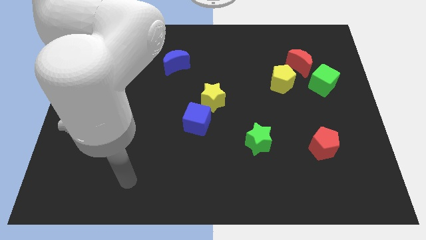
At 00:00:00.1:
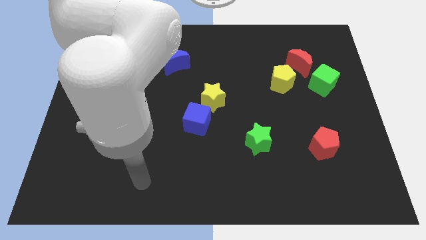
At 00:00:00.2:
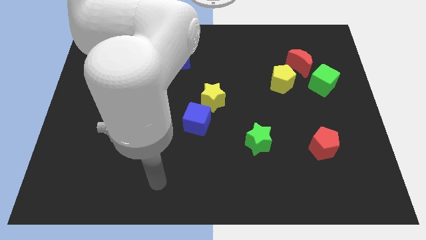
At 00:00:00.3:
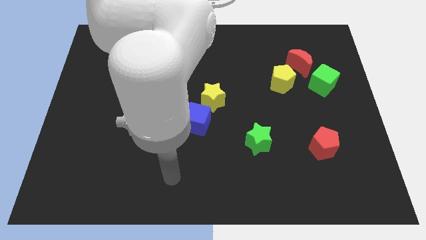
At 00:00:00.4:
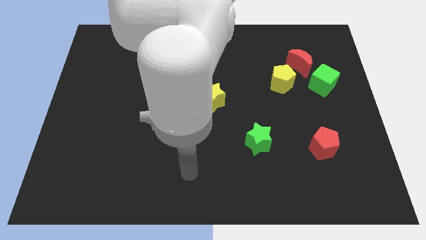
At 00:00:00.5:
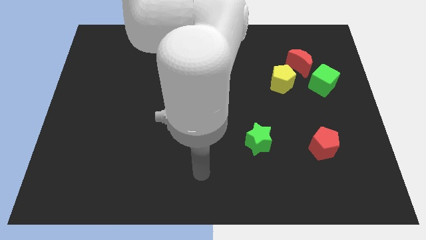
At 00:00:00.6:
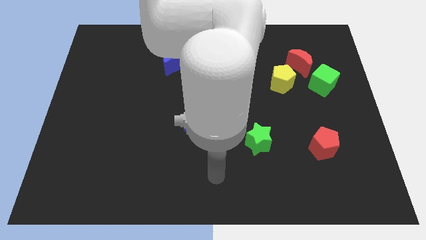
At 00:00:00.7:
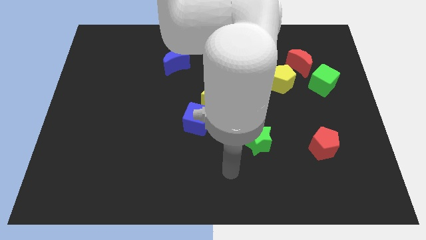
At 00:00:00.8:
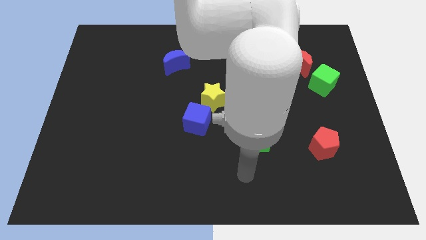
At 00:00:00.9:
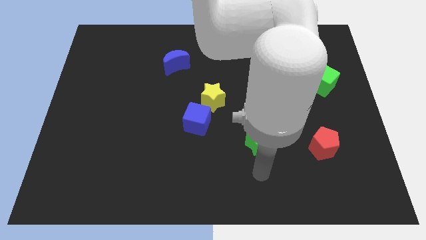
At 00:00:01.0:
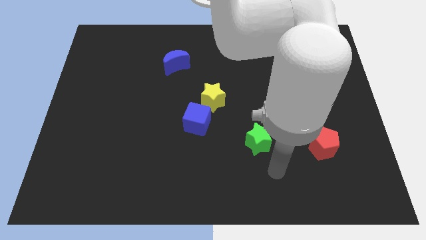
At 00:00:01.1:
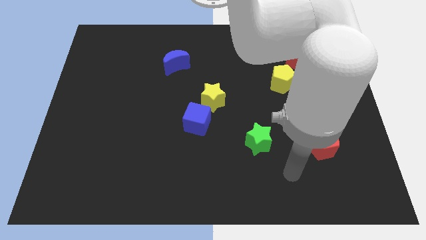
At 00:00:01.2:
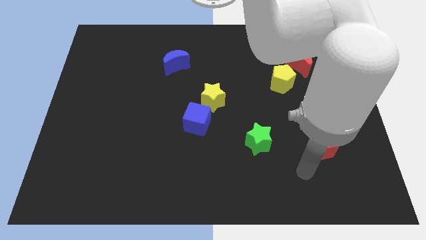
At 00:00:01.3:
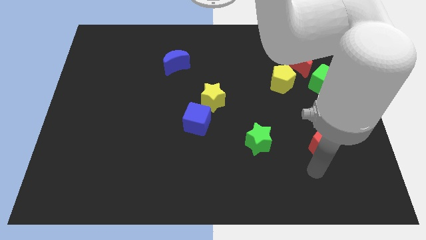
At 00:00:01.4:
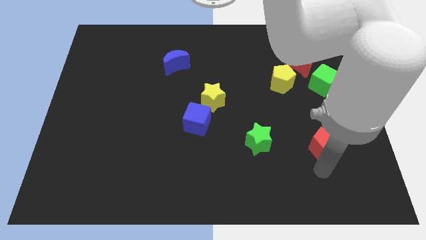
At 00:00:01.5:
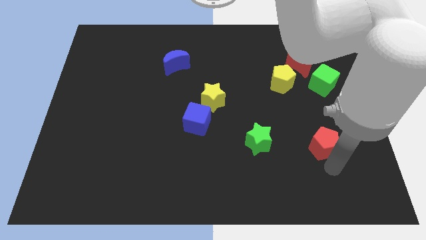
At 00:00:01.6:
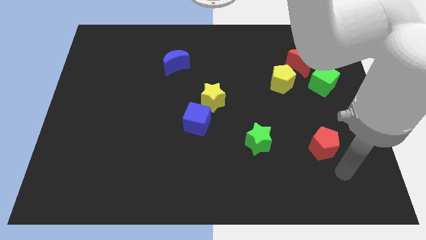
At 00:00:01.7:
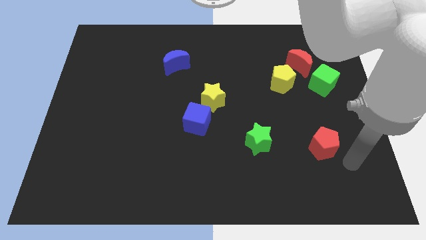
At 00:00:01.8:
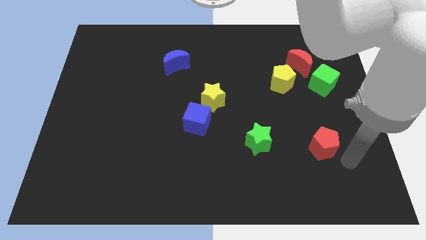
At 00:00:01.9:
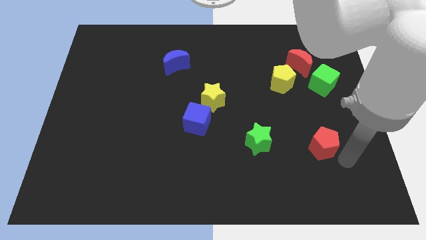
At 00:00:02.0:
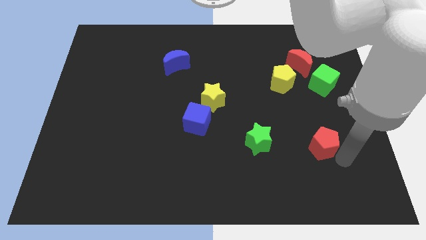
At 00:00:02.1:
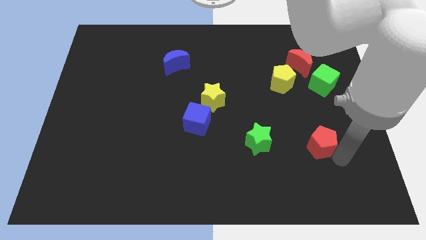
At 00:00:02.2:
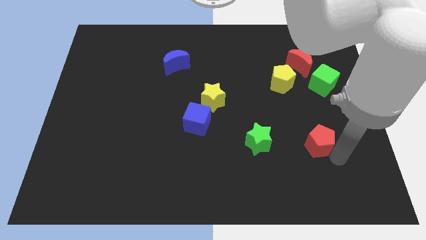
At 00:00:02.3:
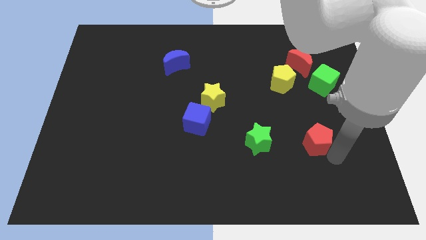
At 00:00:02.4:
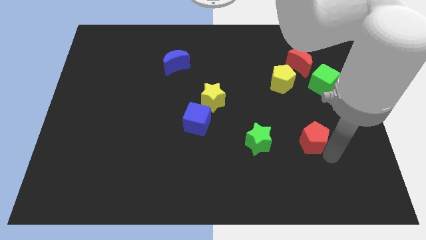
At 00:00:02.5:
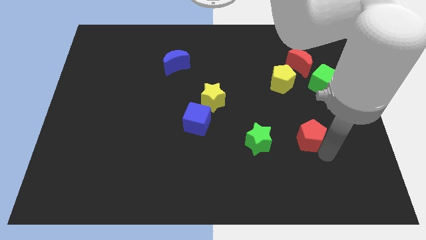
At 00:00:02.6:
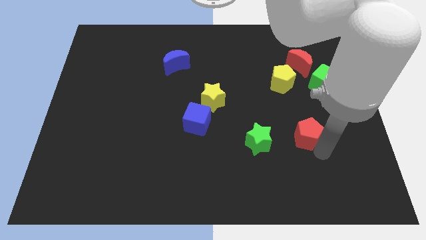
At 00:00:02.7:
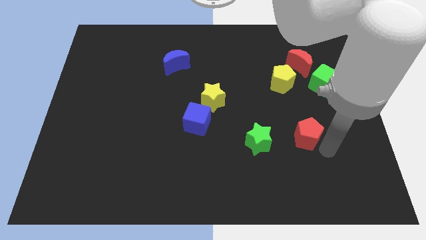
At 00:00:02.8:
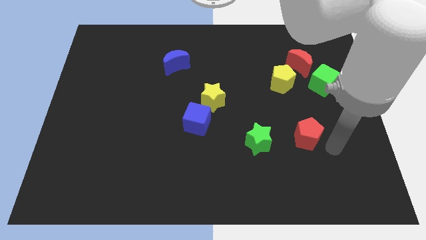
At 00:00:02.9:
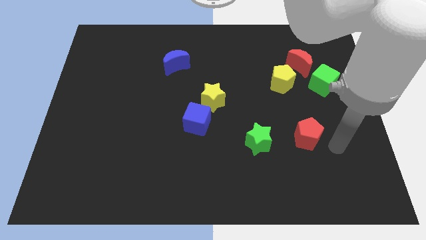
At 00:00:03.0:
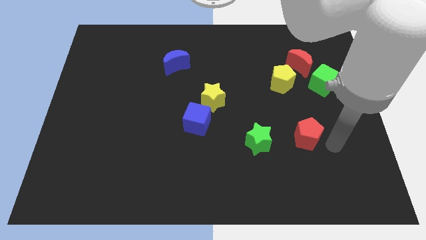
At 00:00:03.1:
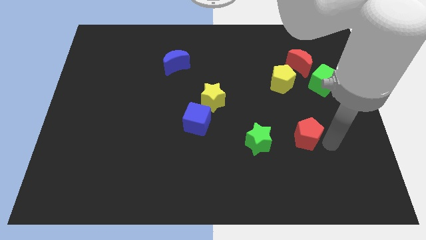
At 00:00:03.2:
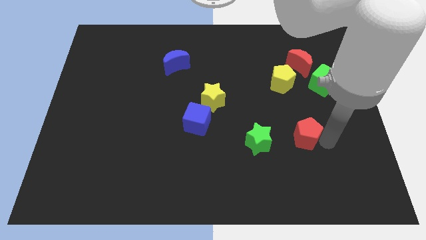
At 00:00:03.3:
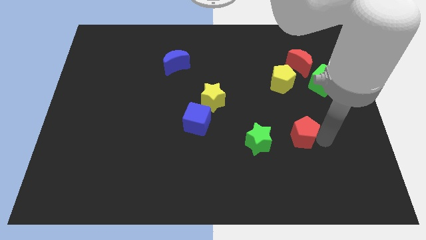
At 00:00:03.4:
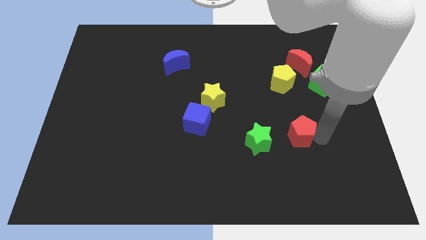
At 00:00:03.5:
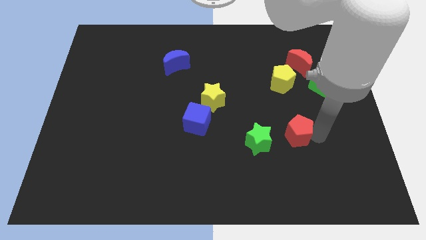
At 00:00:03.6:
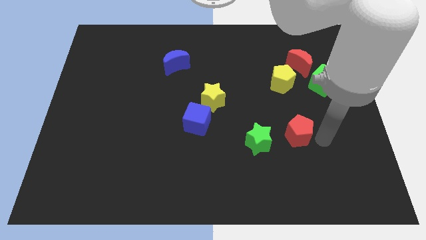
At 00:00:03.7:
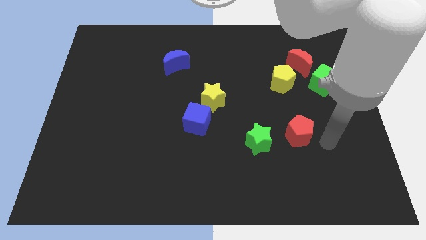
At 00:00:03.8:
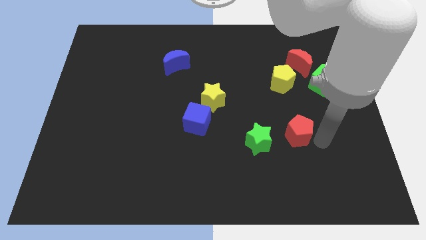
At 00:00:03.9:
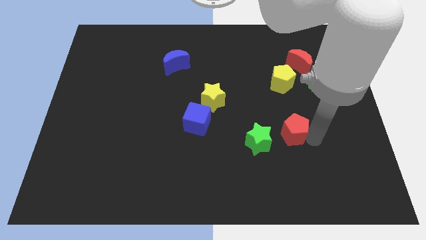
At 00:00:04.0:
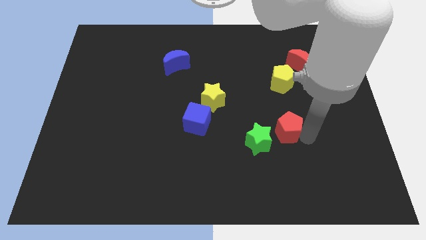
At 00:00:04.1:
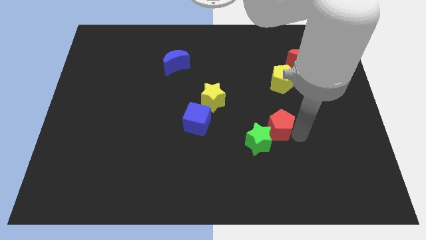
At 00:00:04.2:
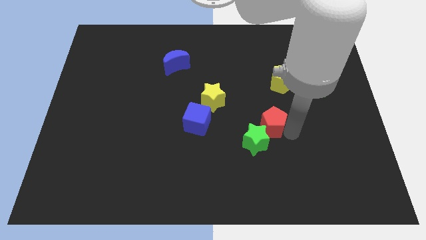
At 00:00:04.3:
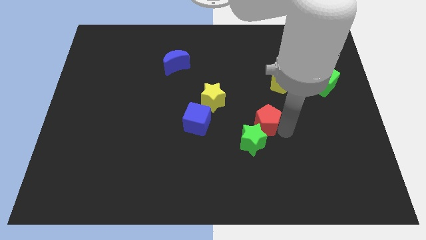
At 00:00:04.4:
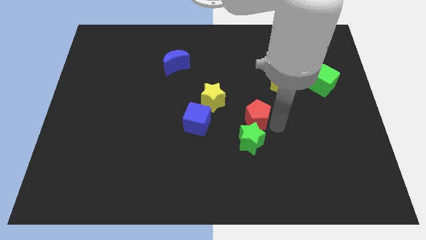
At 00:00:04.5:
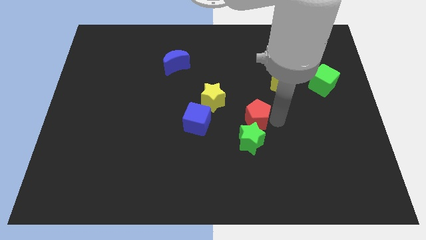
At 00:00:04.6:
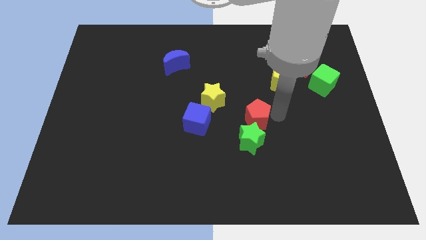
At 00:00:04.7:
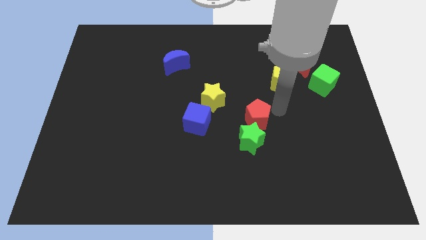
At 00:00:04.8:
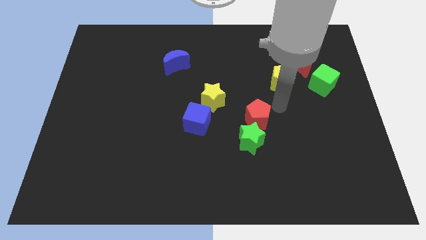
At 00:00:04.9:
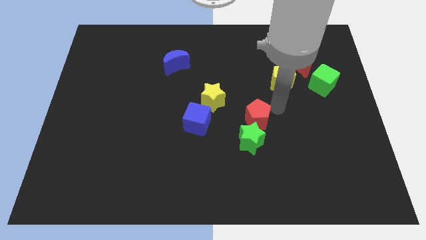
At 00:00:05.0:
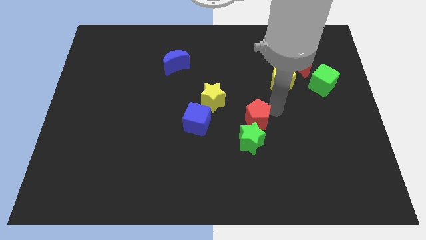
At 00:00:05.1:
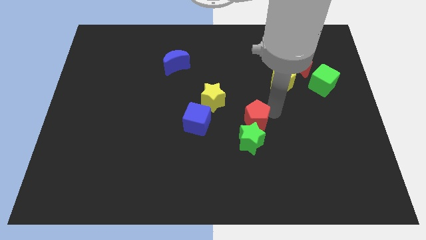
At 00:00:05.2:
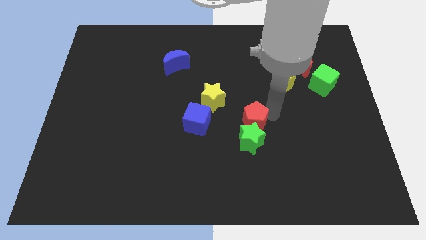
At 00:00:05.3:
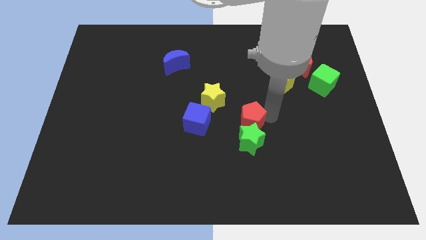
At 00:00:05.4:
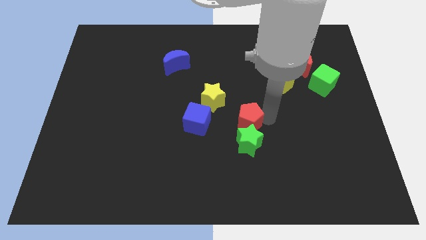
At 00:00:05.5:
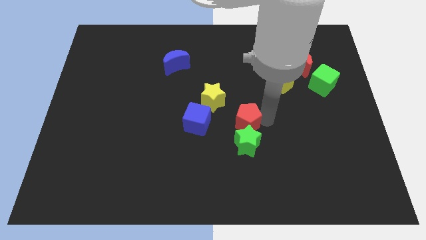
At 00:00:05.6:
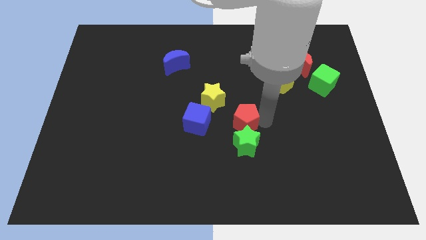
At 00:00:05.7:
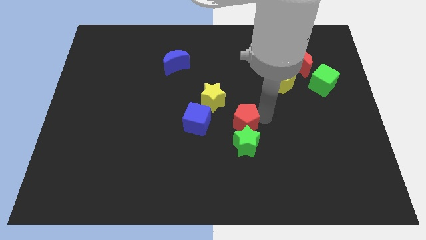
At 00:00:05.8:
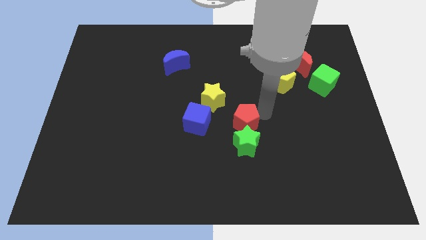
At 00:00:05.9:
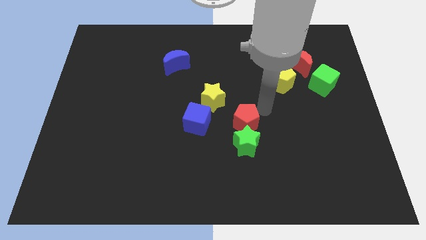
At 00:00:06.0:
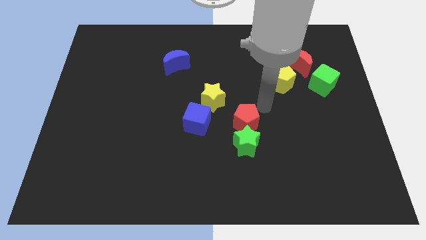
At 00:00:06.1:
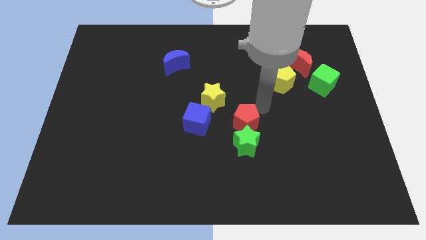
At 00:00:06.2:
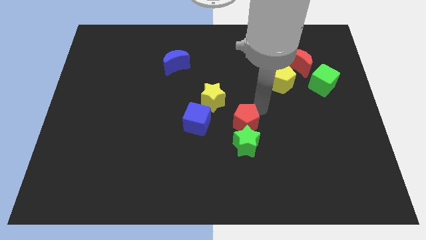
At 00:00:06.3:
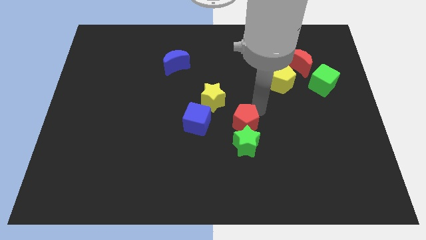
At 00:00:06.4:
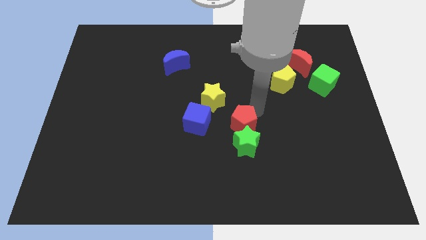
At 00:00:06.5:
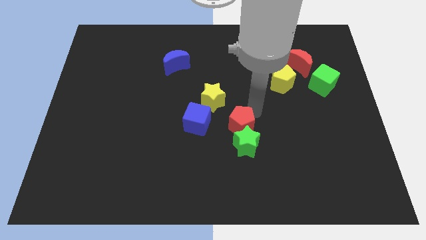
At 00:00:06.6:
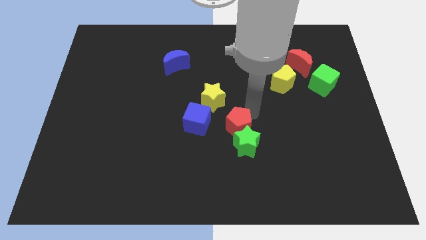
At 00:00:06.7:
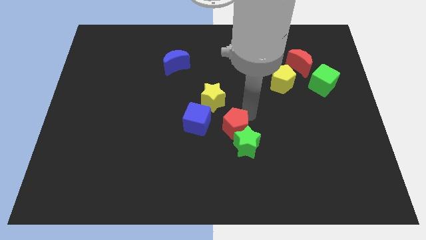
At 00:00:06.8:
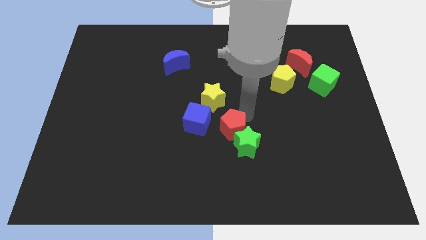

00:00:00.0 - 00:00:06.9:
put the red pentagon to the bottom right of the blue cube

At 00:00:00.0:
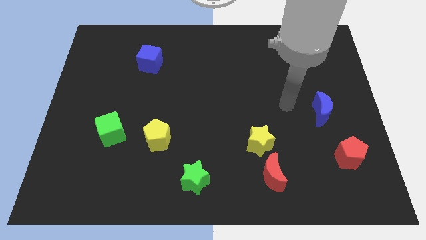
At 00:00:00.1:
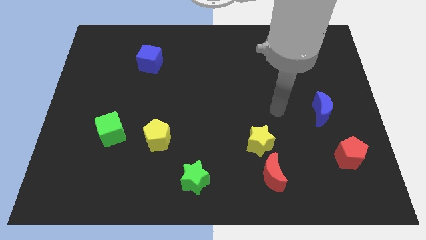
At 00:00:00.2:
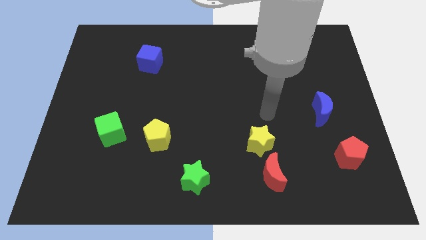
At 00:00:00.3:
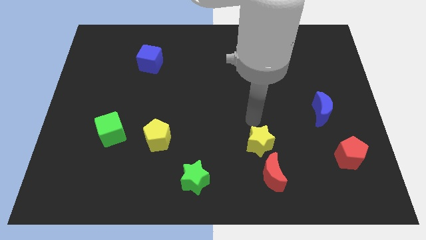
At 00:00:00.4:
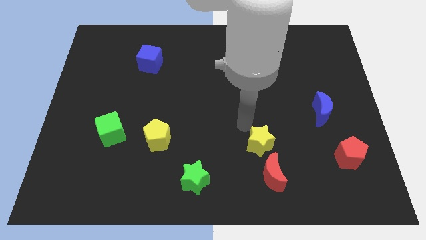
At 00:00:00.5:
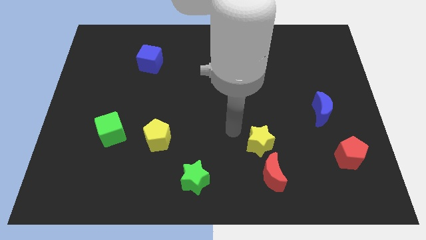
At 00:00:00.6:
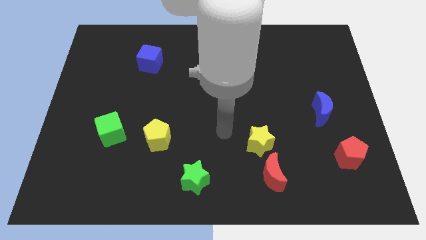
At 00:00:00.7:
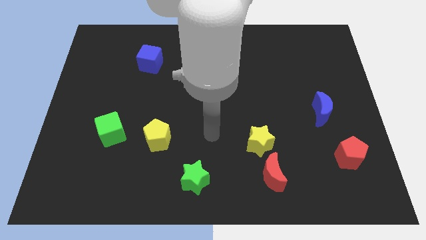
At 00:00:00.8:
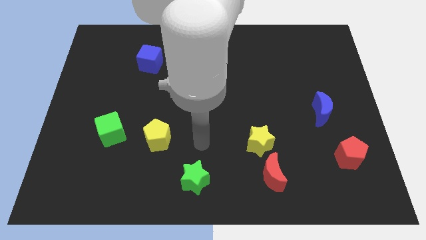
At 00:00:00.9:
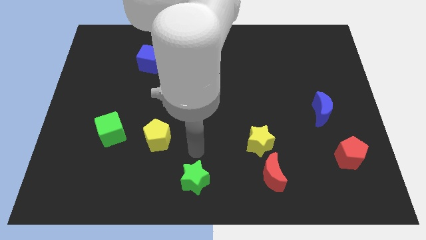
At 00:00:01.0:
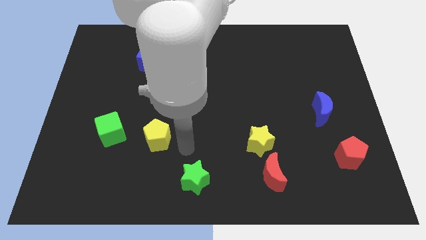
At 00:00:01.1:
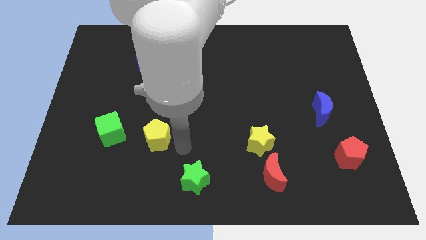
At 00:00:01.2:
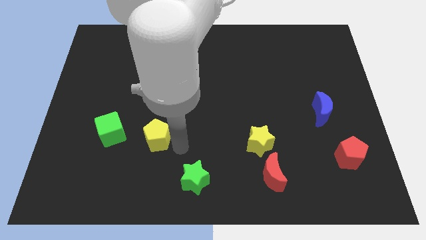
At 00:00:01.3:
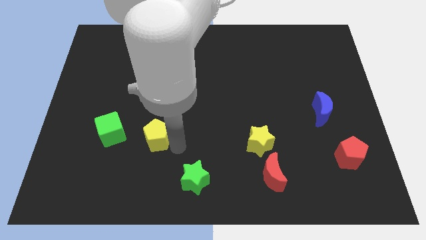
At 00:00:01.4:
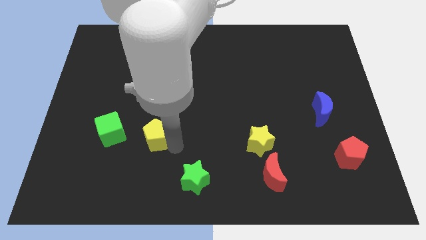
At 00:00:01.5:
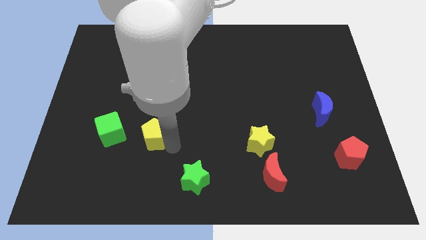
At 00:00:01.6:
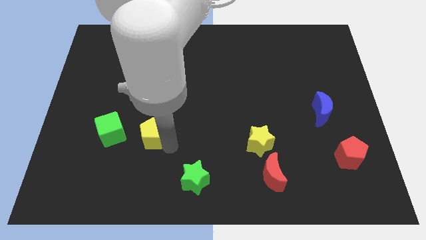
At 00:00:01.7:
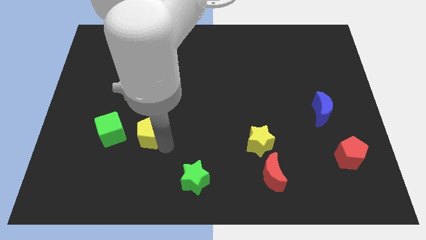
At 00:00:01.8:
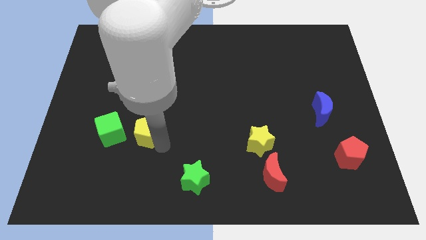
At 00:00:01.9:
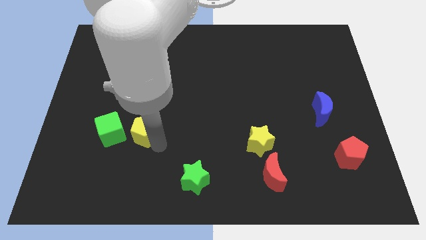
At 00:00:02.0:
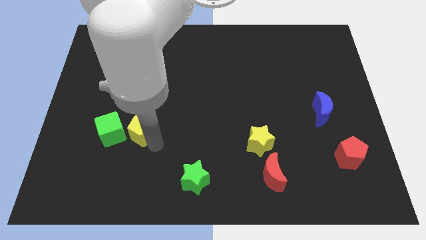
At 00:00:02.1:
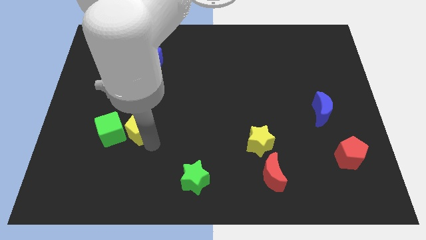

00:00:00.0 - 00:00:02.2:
slide the yellow pentagon diagonally up and to the right of the green cube
